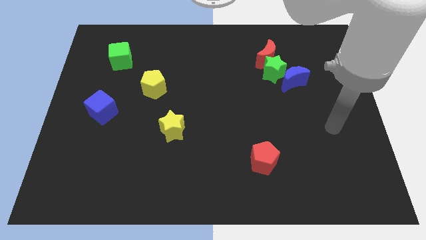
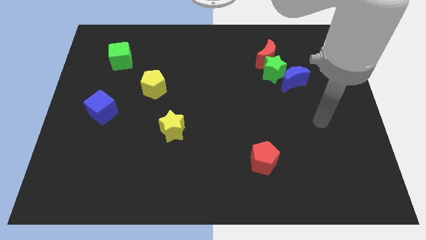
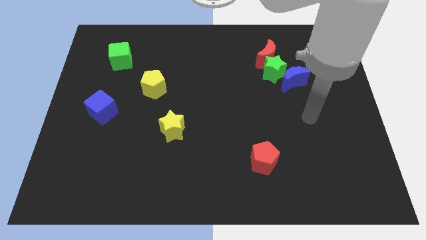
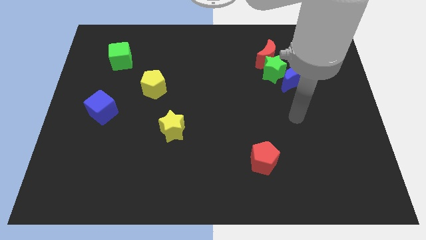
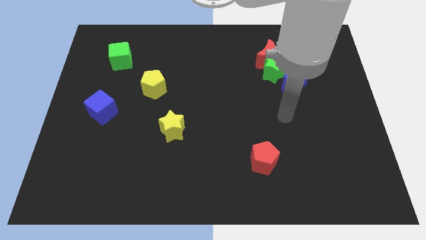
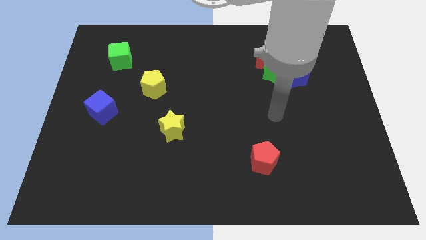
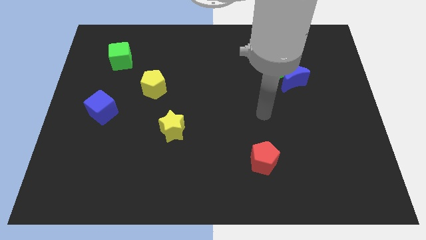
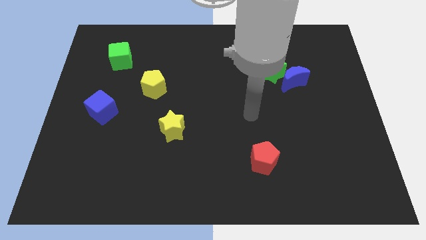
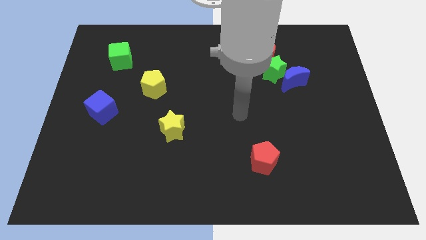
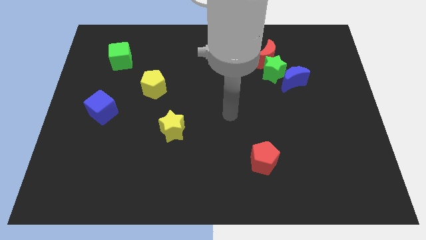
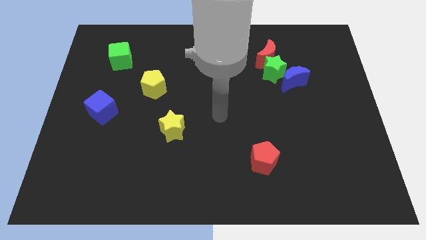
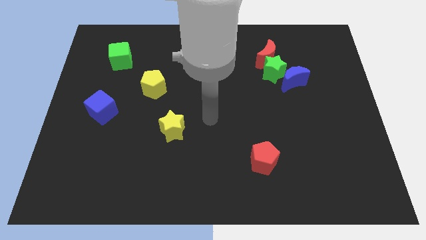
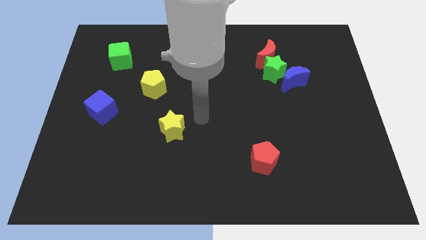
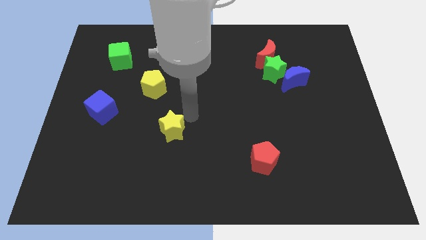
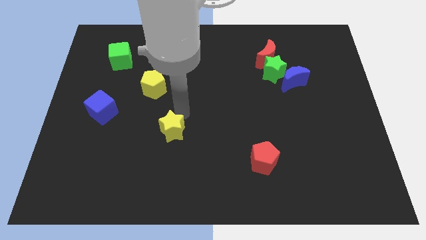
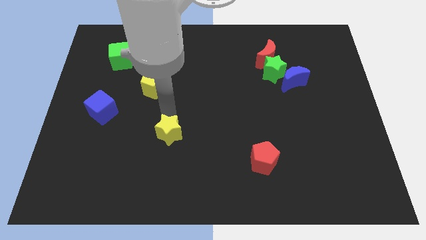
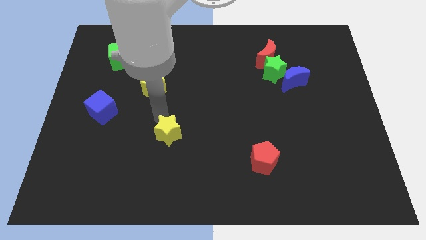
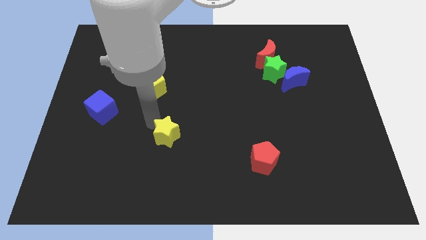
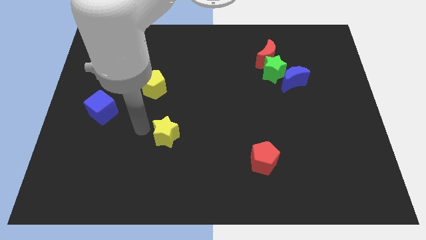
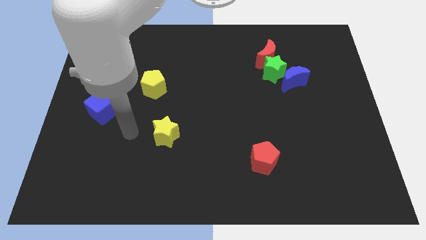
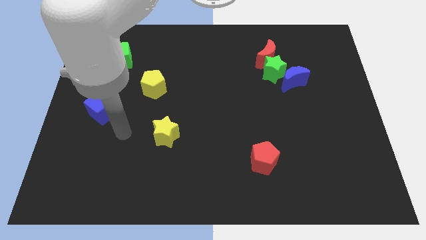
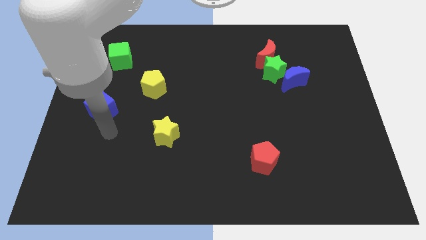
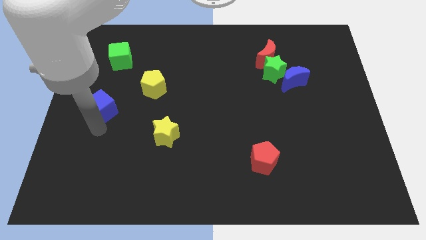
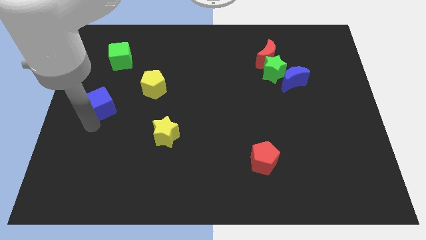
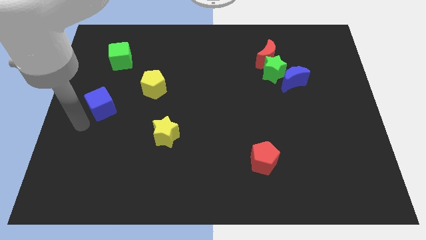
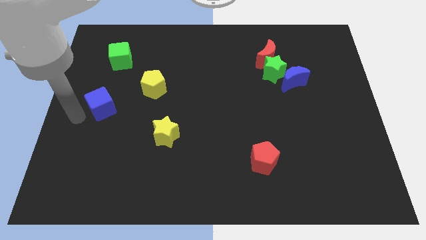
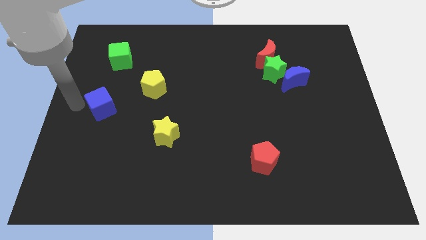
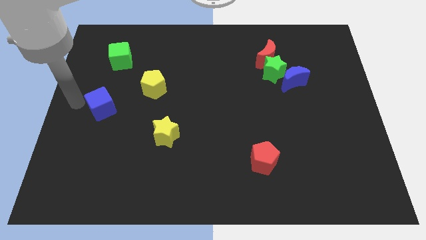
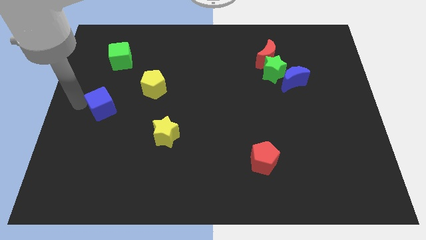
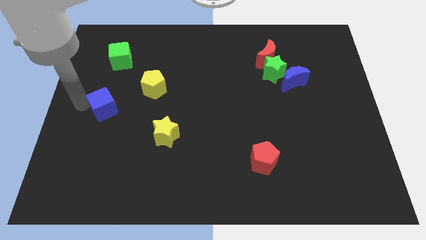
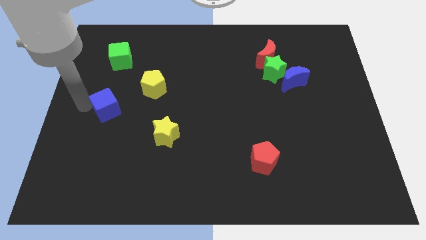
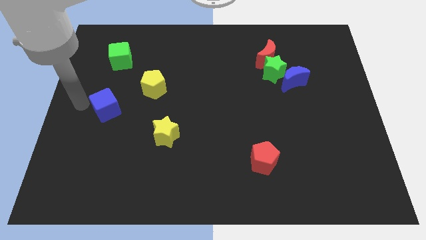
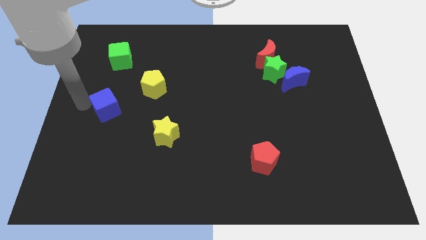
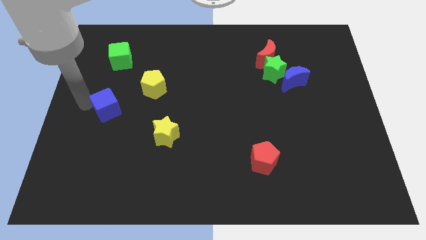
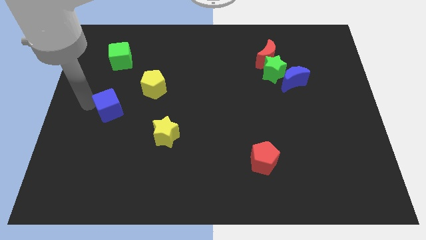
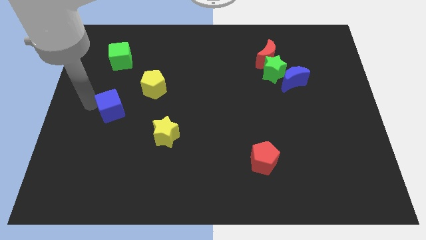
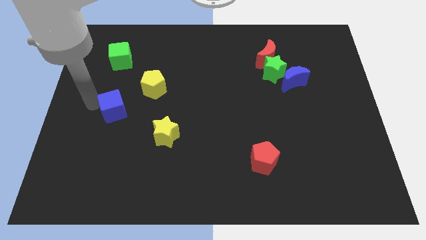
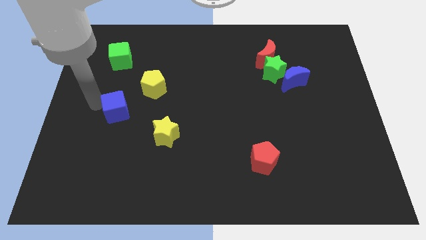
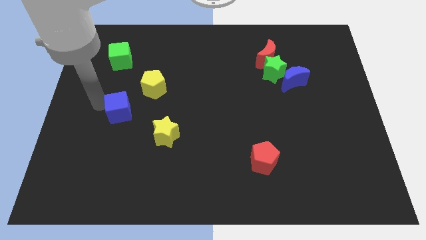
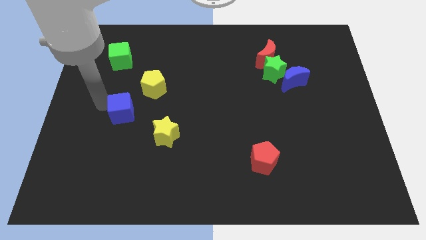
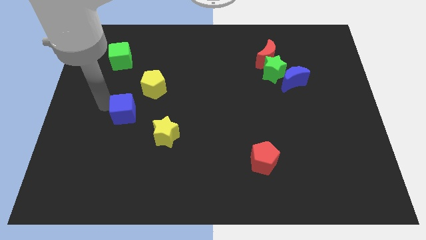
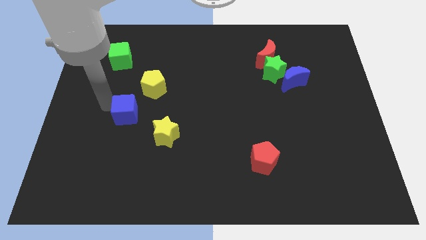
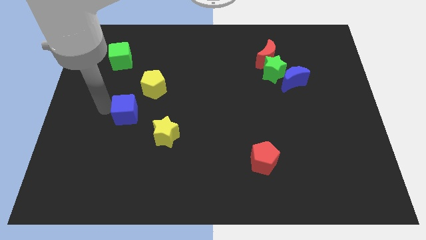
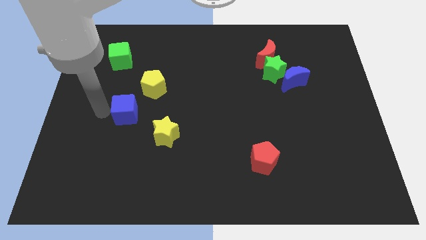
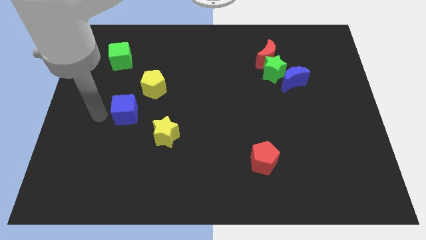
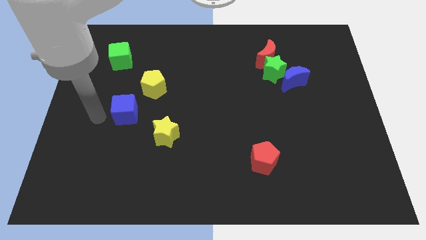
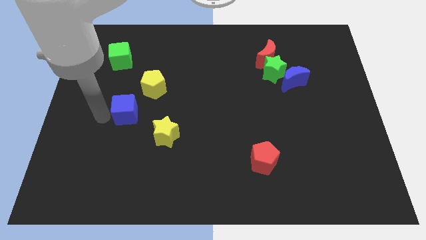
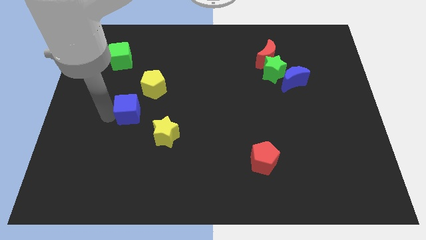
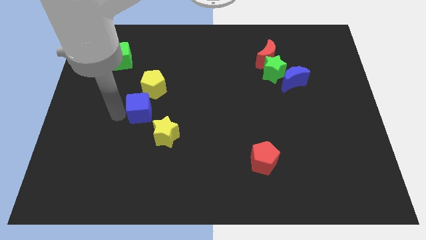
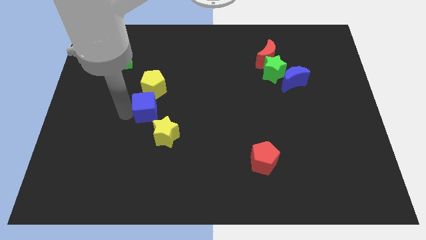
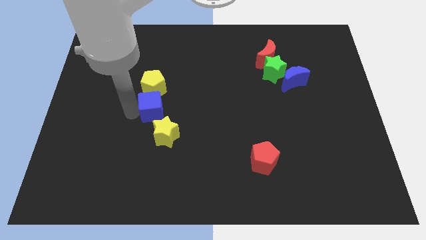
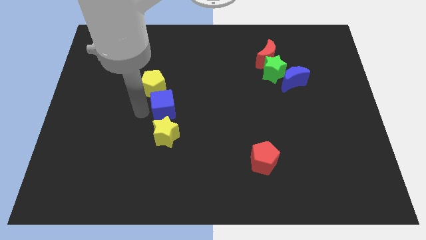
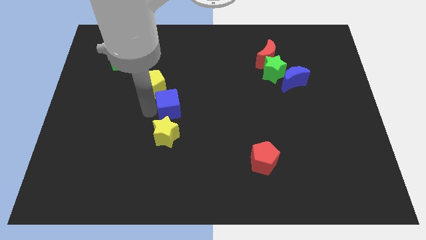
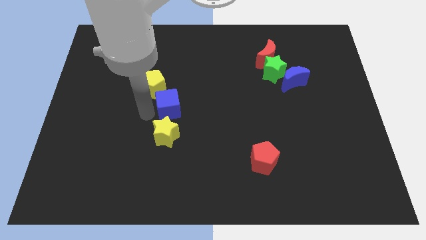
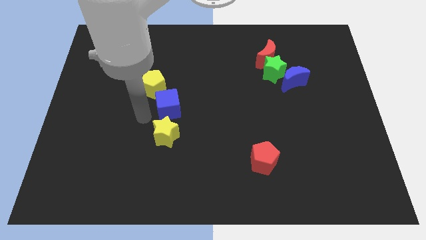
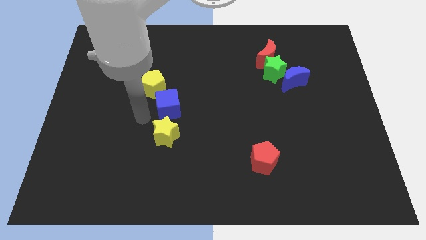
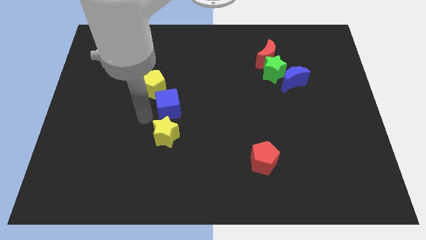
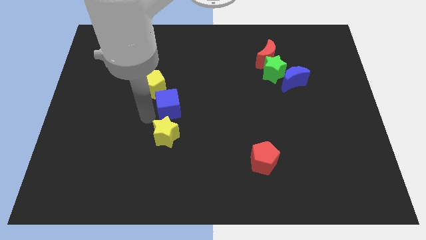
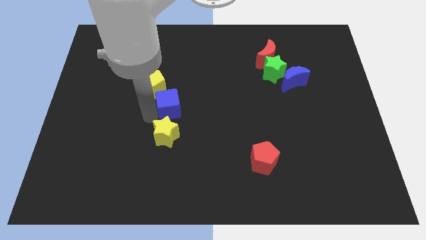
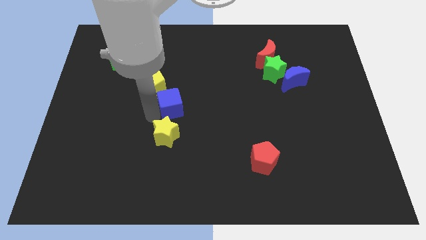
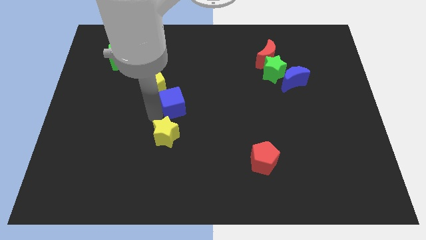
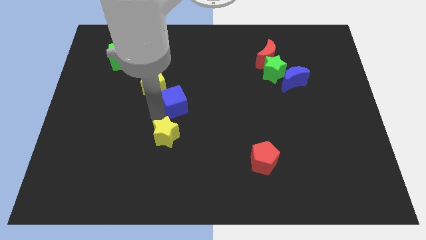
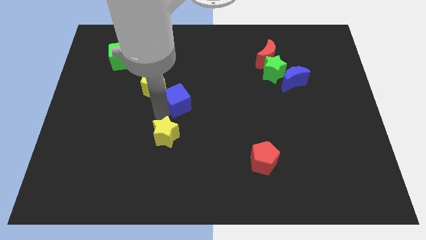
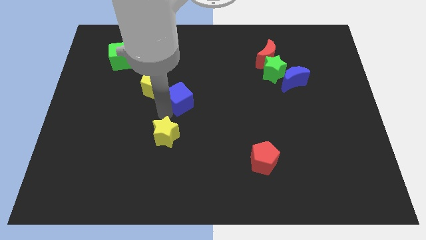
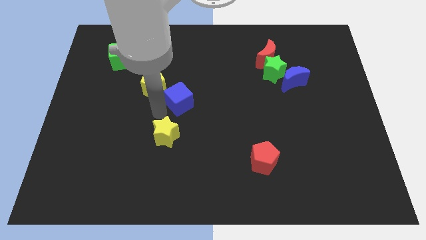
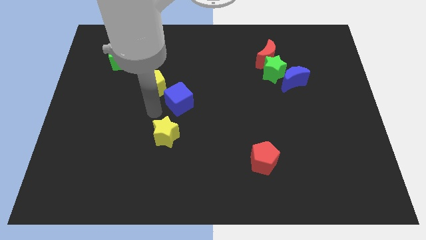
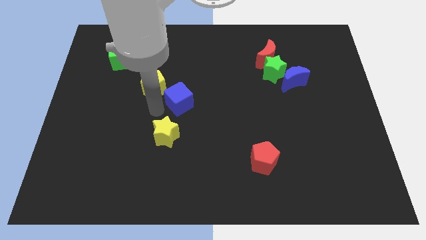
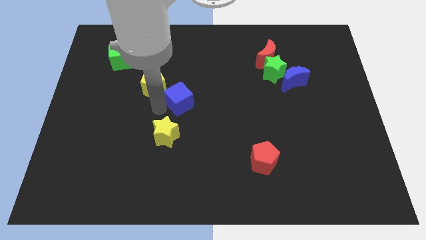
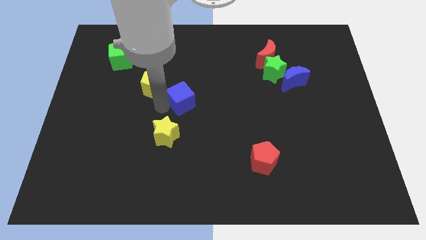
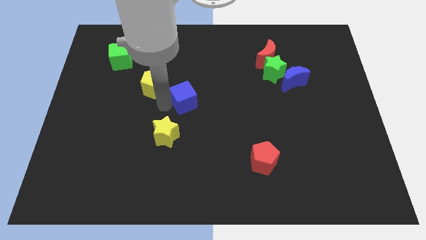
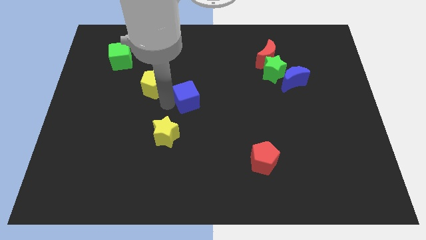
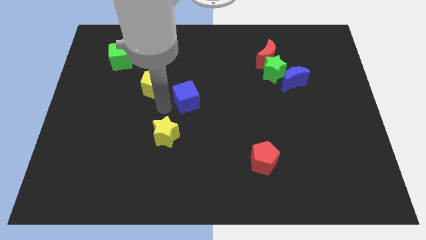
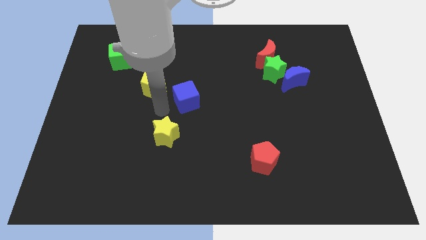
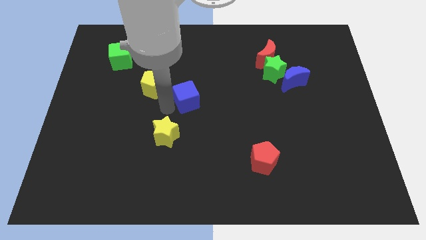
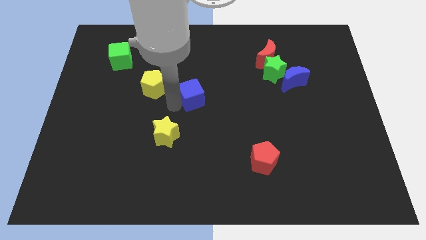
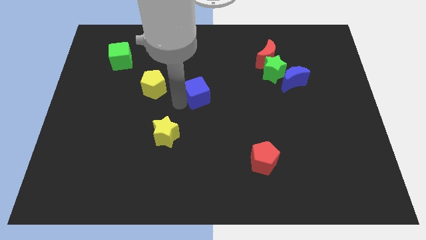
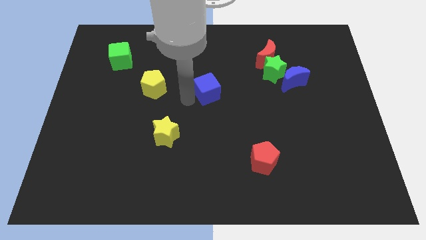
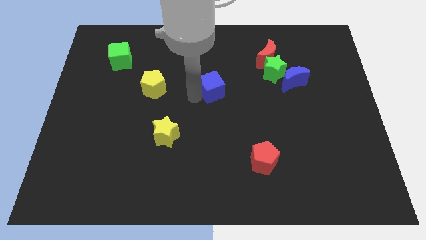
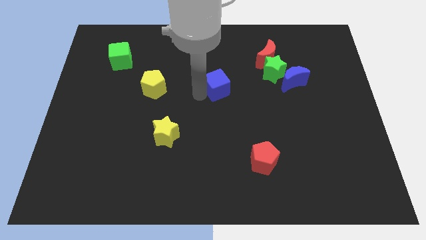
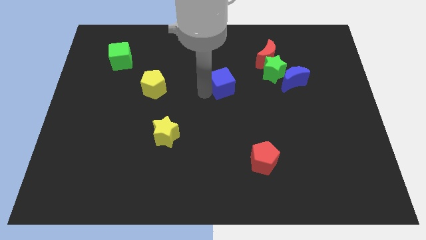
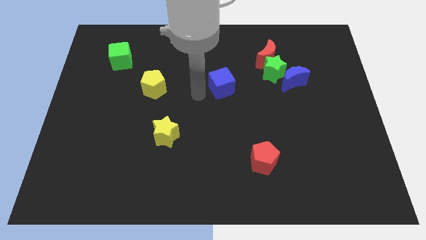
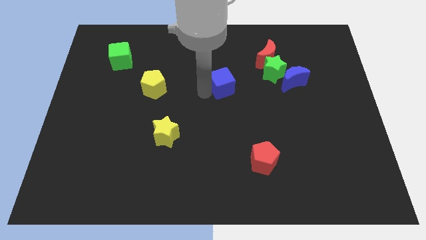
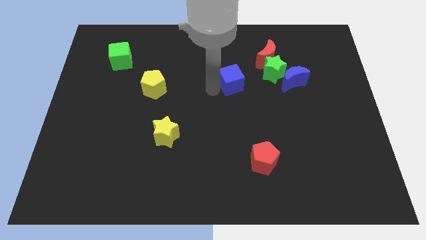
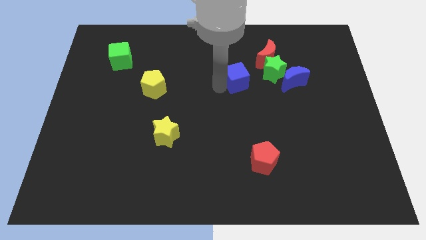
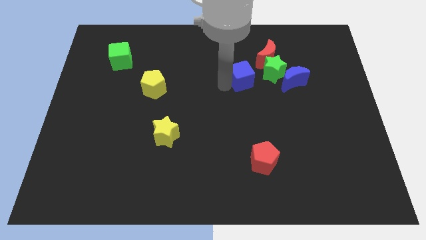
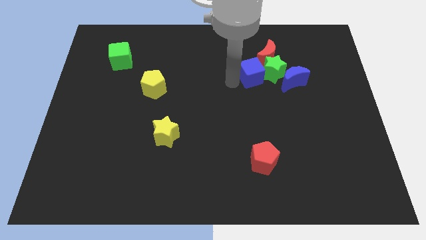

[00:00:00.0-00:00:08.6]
move the blue cube close to the green star
